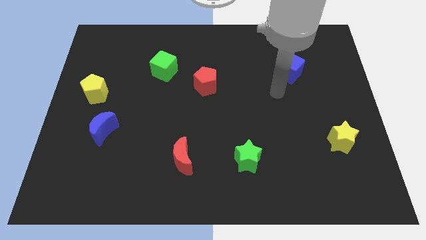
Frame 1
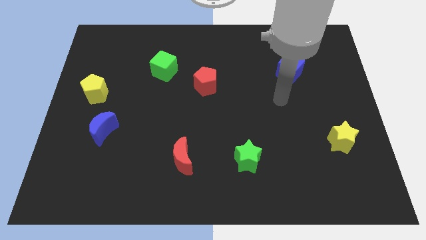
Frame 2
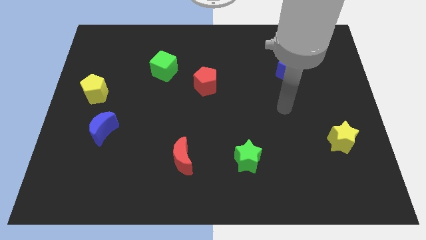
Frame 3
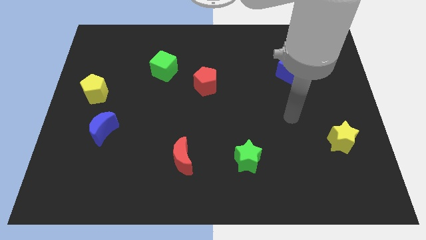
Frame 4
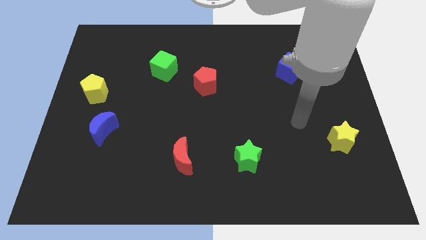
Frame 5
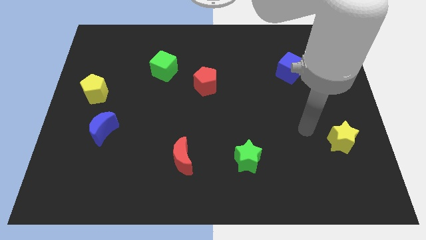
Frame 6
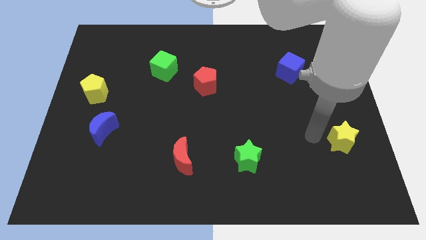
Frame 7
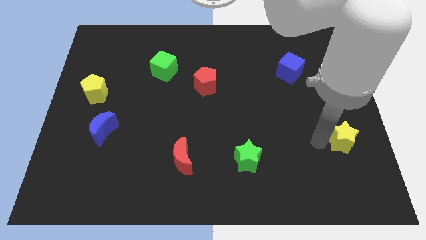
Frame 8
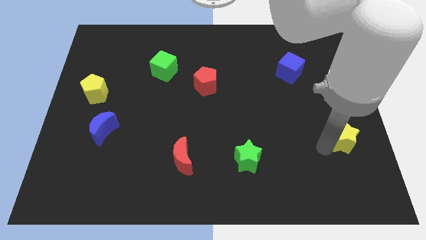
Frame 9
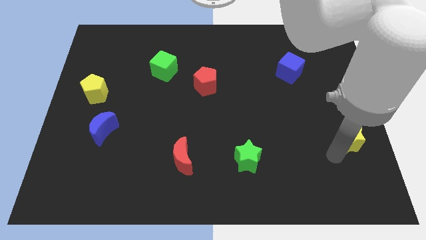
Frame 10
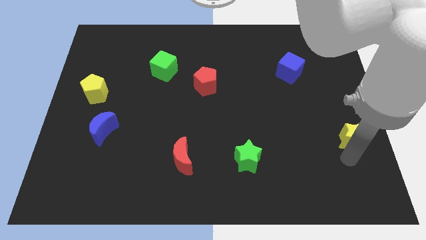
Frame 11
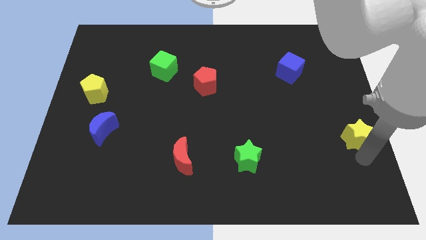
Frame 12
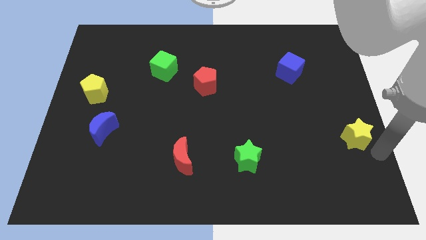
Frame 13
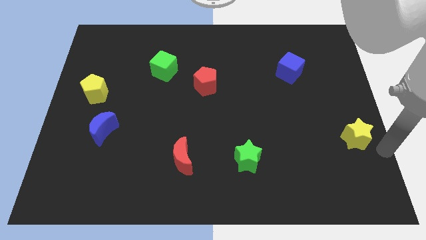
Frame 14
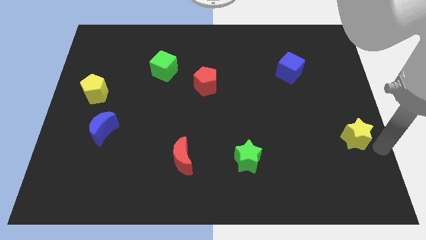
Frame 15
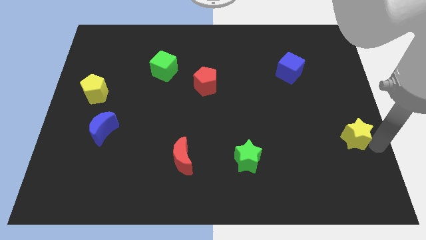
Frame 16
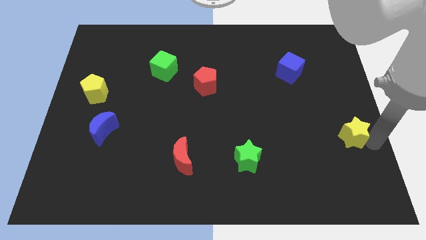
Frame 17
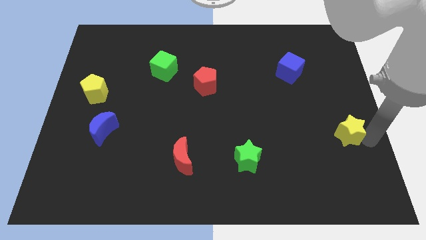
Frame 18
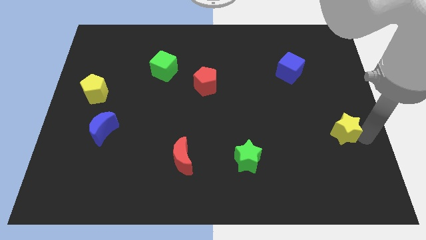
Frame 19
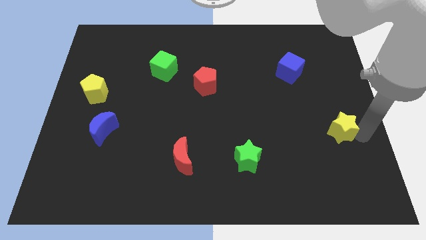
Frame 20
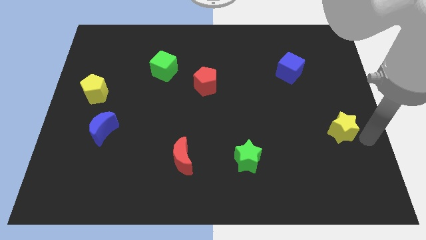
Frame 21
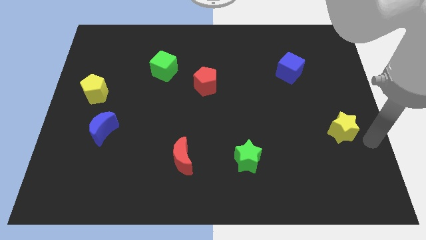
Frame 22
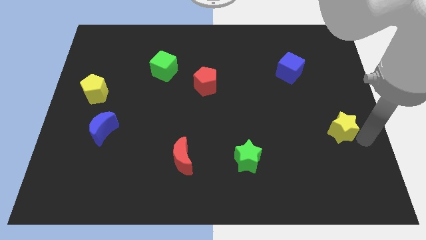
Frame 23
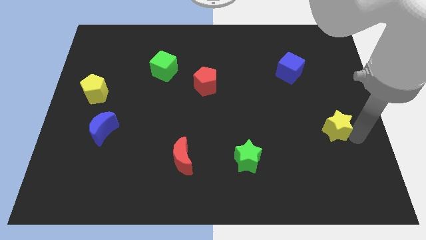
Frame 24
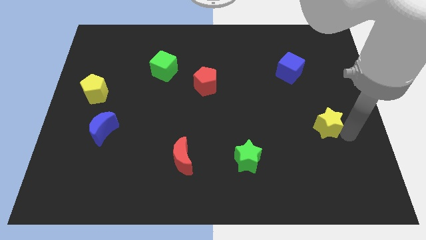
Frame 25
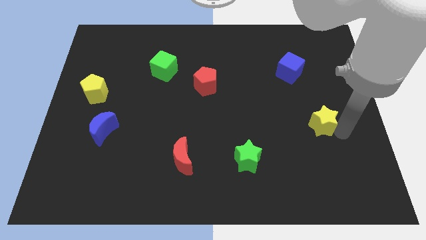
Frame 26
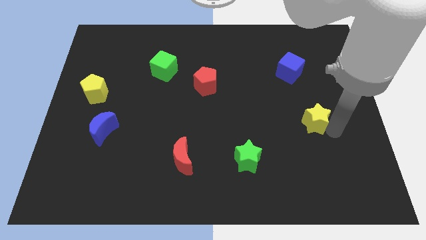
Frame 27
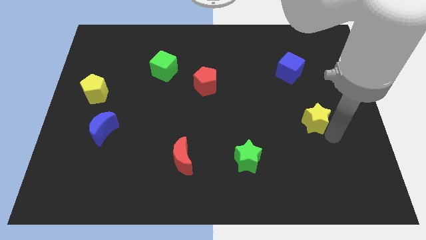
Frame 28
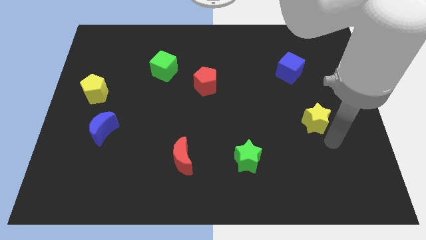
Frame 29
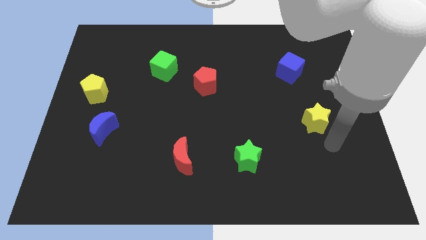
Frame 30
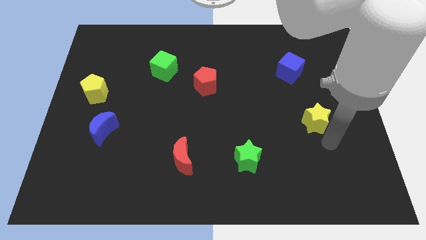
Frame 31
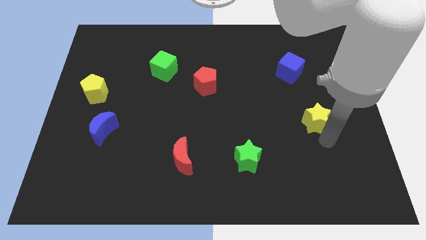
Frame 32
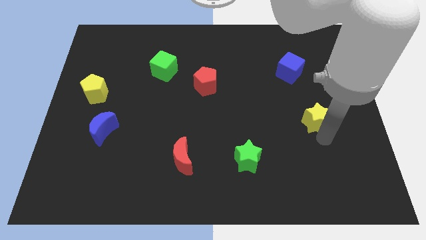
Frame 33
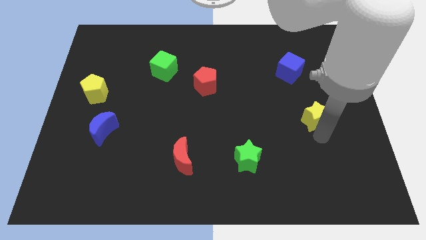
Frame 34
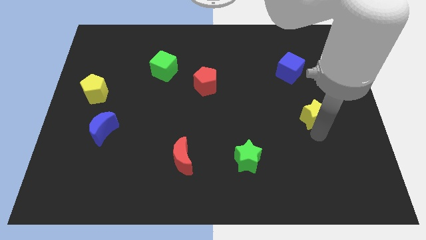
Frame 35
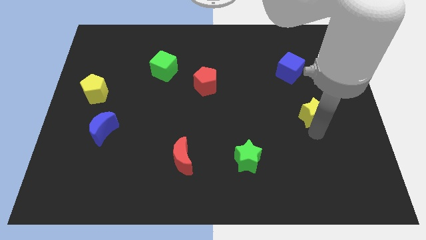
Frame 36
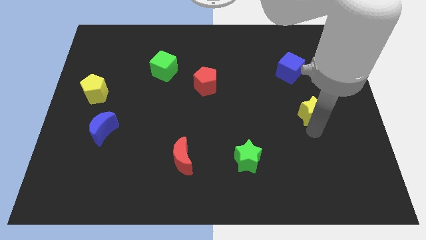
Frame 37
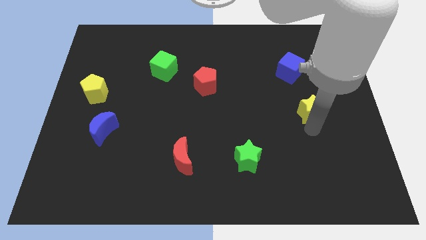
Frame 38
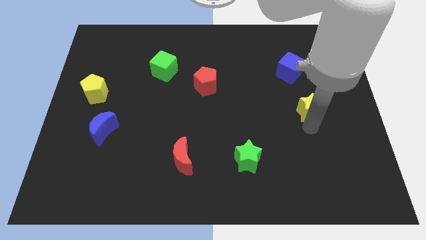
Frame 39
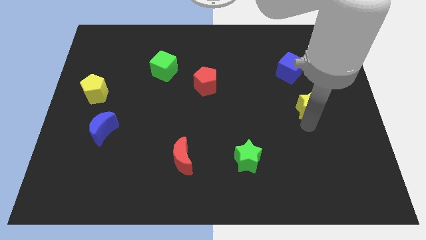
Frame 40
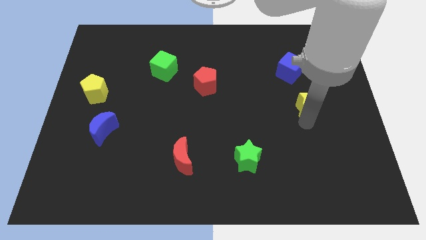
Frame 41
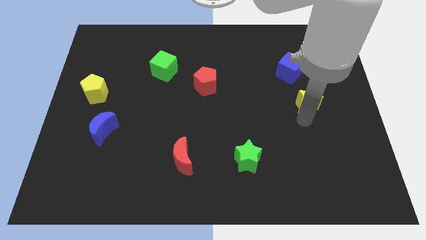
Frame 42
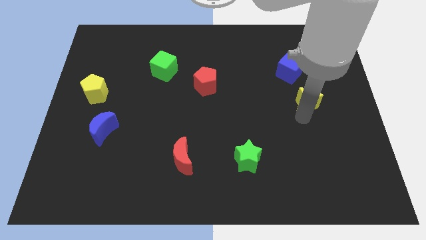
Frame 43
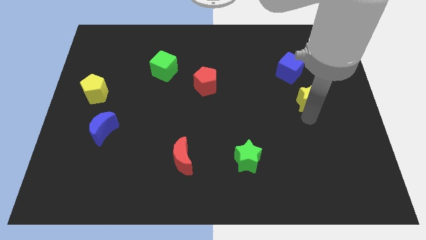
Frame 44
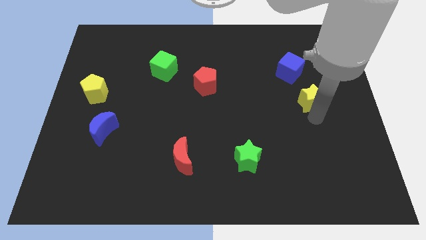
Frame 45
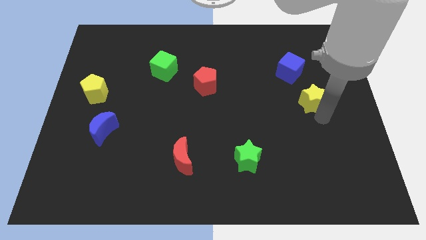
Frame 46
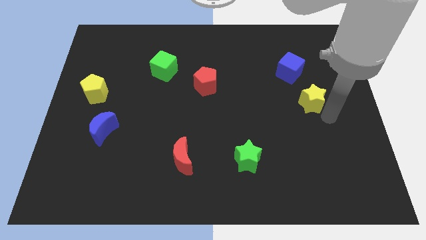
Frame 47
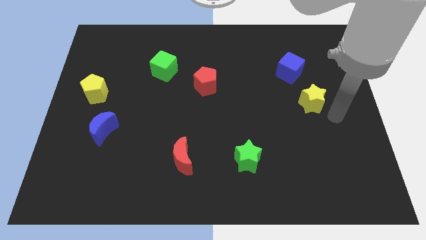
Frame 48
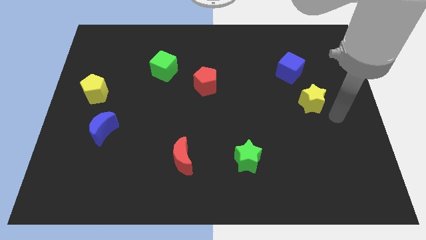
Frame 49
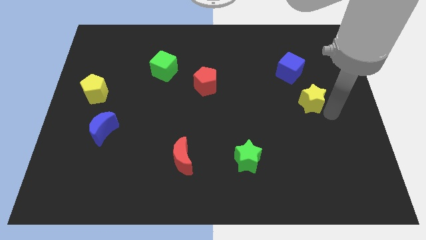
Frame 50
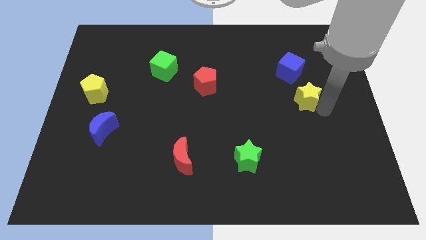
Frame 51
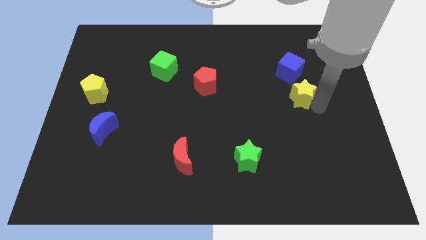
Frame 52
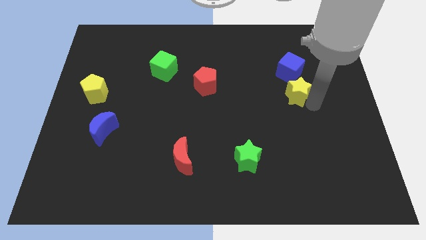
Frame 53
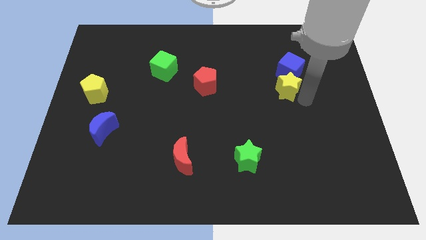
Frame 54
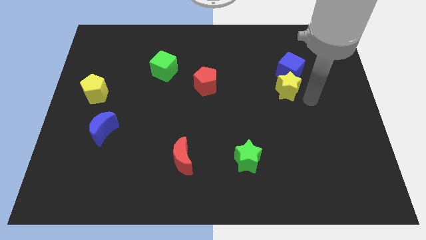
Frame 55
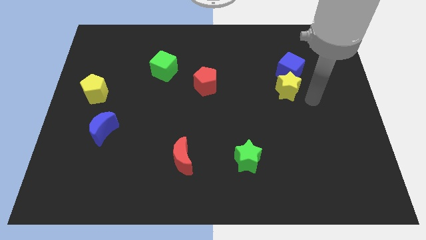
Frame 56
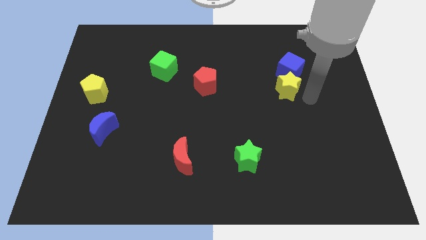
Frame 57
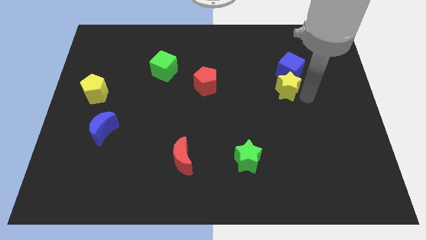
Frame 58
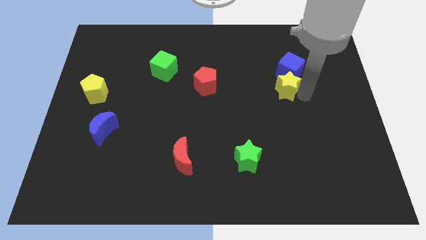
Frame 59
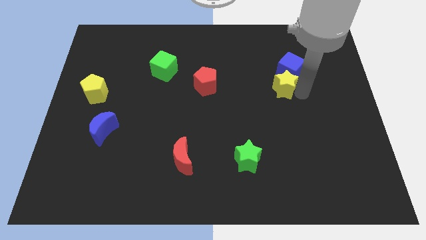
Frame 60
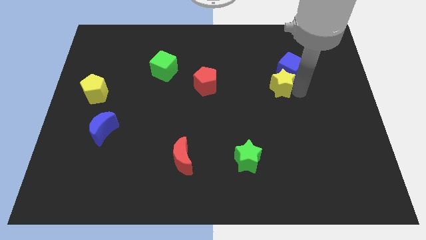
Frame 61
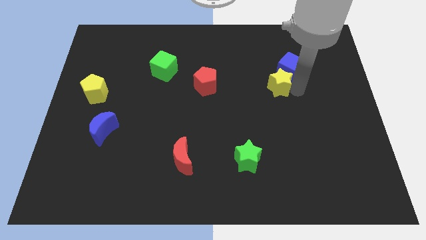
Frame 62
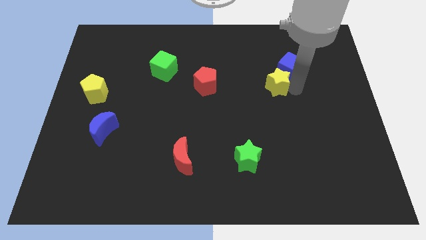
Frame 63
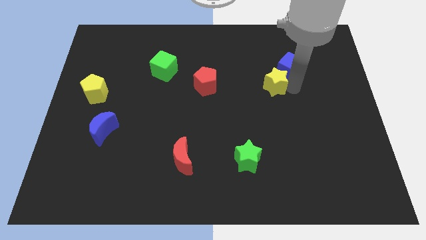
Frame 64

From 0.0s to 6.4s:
push the yellow star upwards and left diagonally

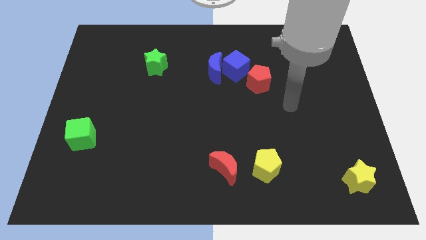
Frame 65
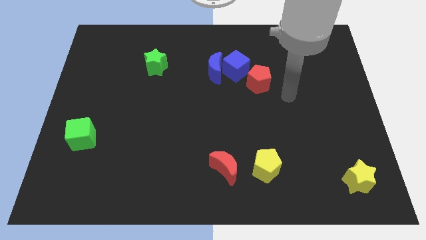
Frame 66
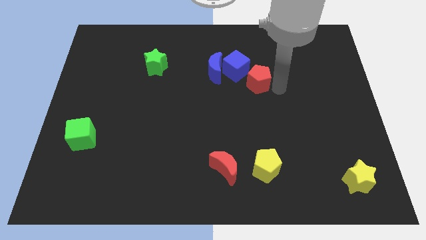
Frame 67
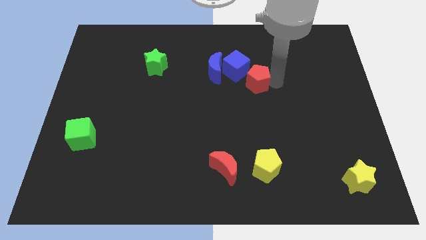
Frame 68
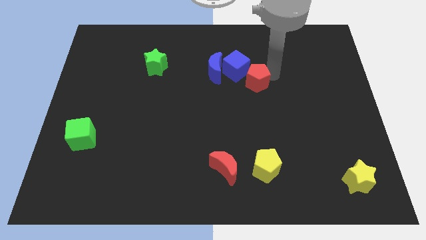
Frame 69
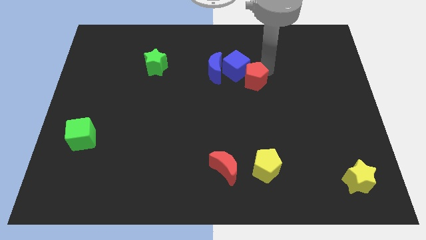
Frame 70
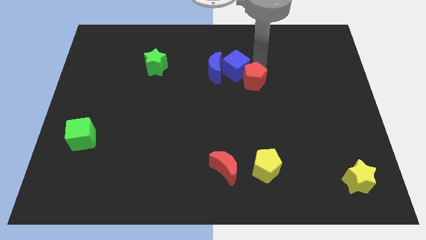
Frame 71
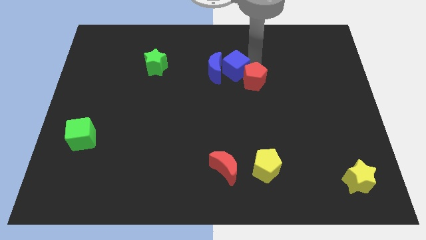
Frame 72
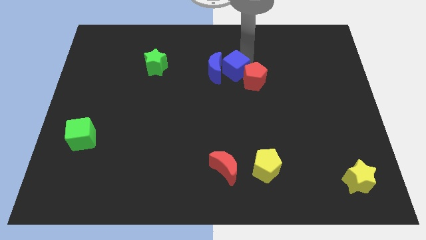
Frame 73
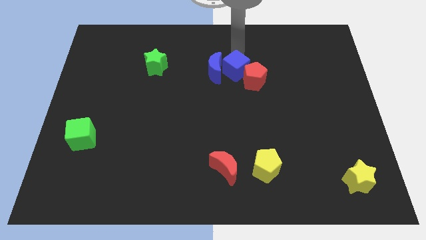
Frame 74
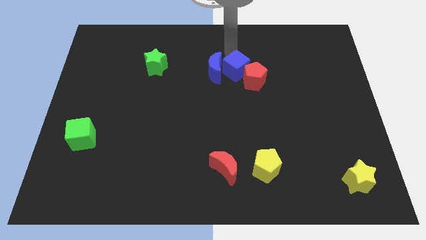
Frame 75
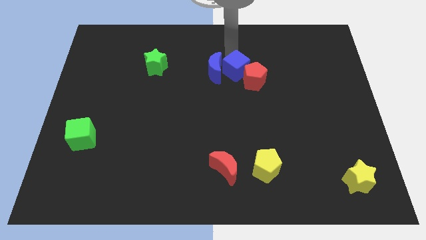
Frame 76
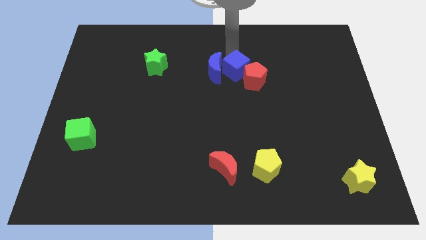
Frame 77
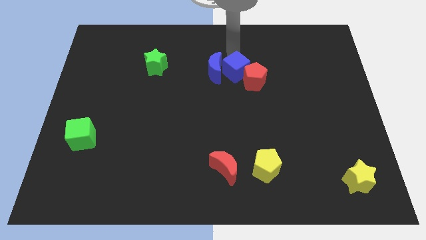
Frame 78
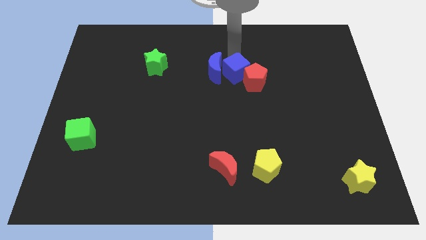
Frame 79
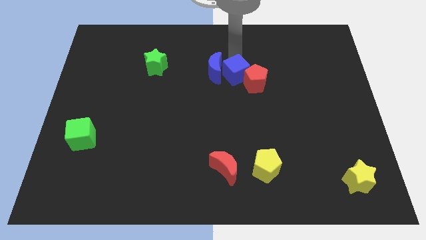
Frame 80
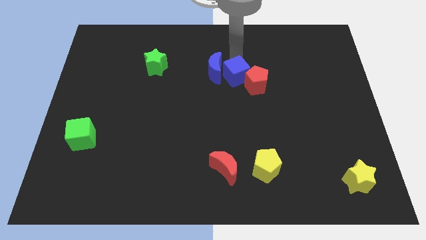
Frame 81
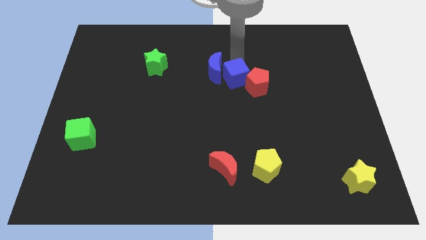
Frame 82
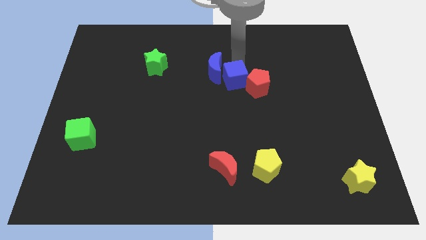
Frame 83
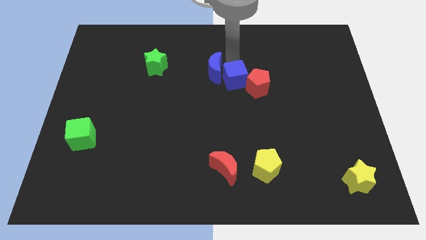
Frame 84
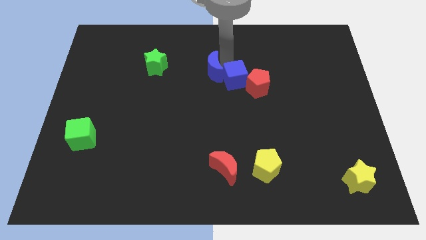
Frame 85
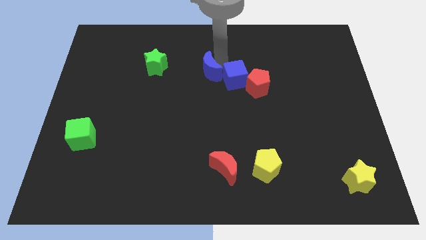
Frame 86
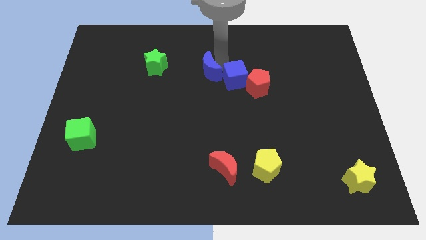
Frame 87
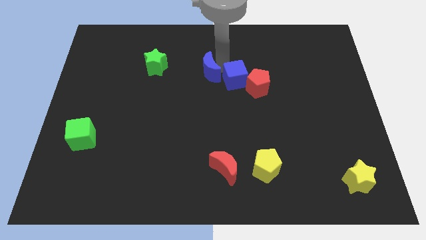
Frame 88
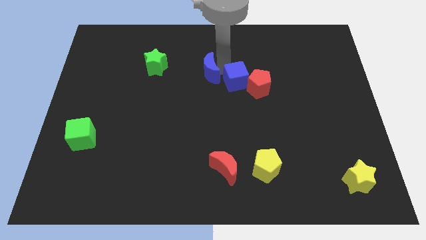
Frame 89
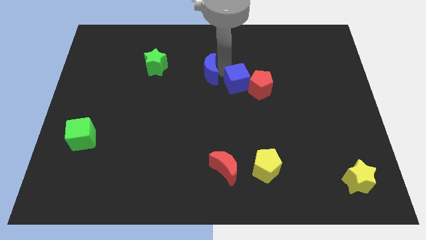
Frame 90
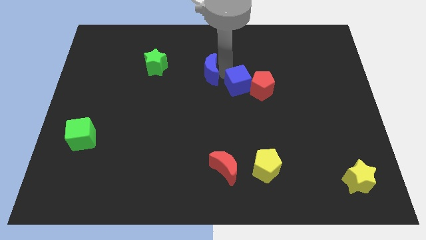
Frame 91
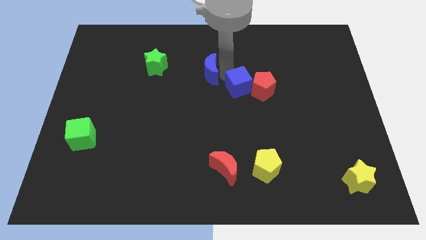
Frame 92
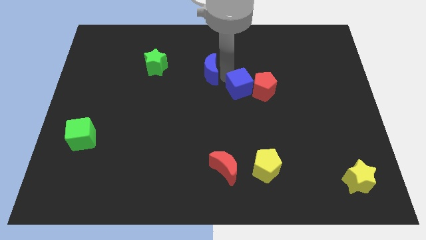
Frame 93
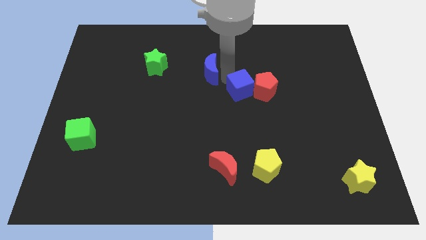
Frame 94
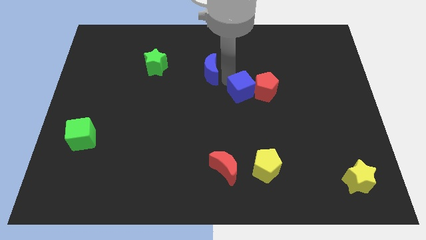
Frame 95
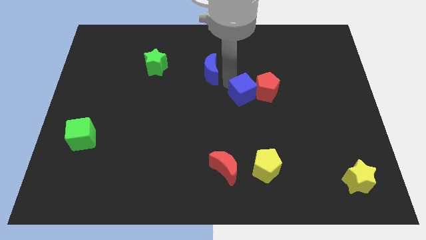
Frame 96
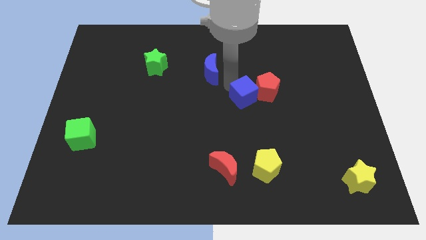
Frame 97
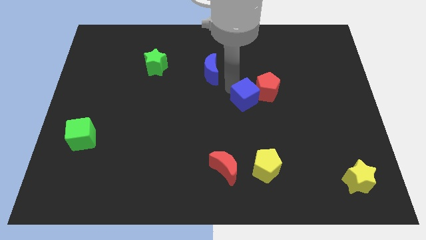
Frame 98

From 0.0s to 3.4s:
move the blue cube diagonally down and to the right a bit
